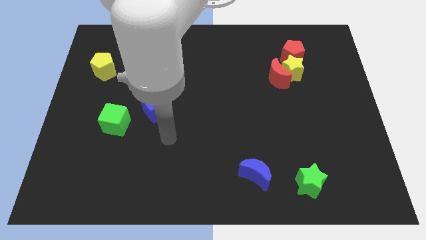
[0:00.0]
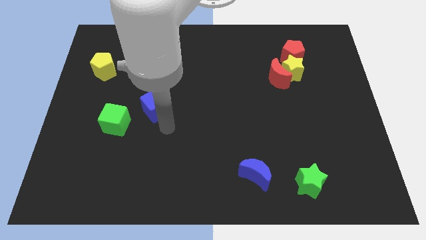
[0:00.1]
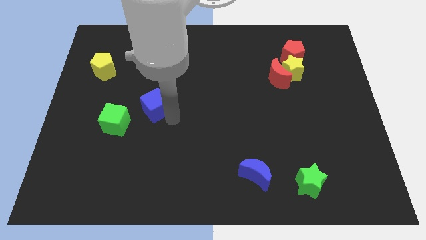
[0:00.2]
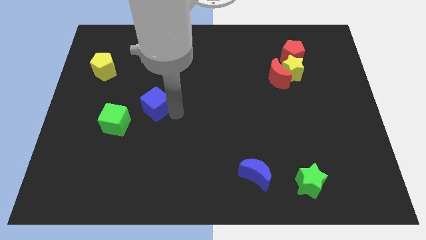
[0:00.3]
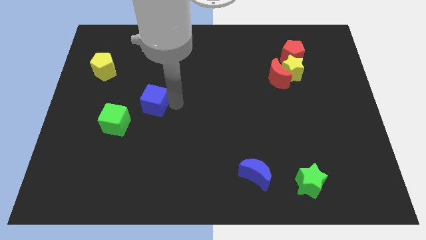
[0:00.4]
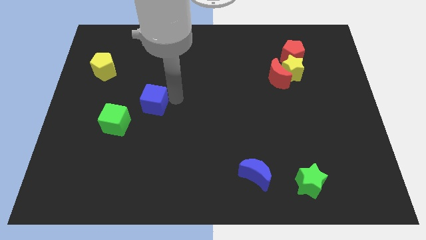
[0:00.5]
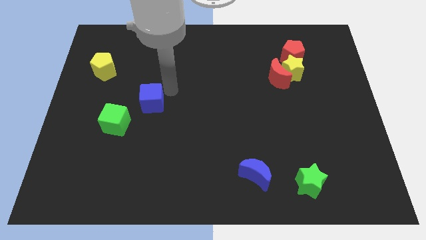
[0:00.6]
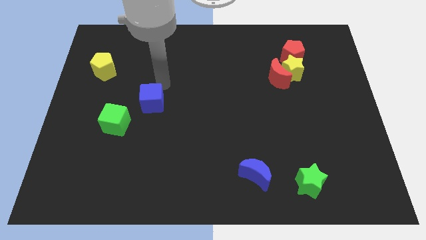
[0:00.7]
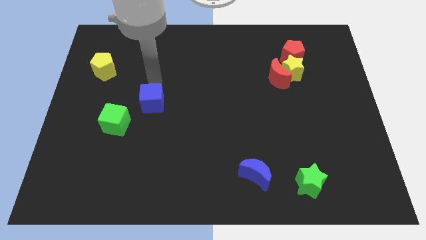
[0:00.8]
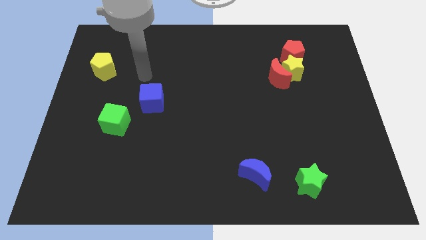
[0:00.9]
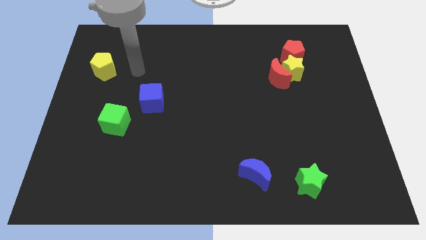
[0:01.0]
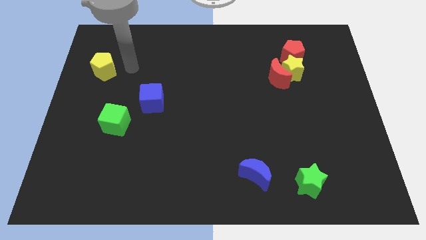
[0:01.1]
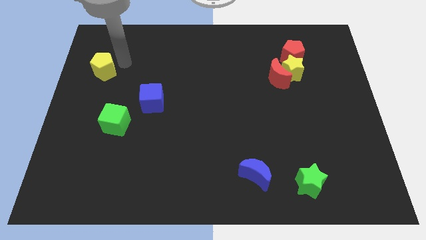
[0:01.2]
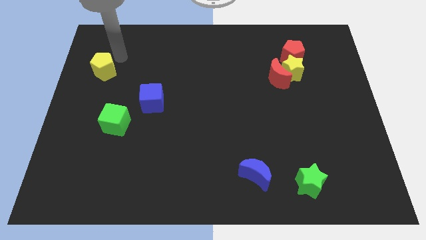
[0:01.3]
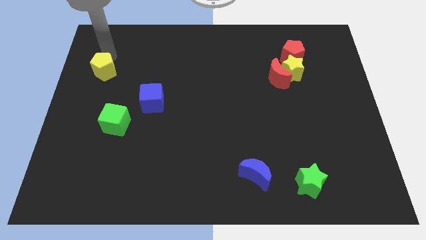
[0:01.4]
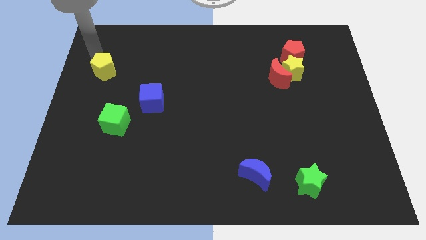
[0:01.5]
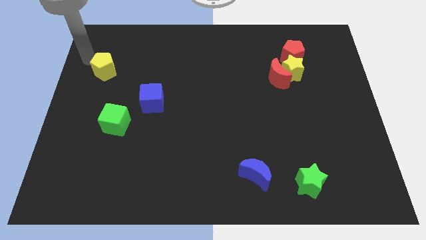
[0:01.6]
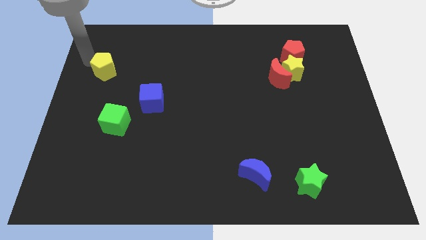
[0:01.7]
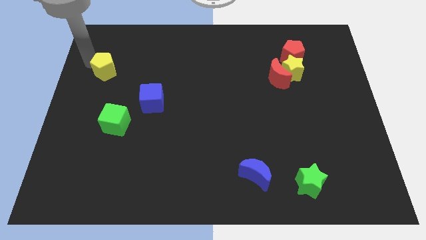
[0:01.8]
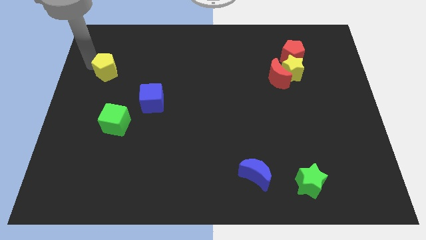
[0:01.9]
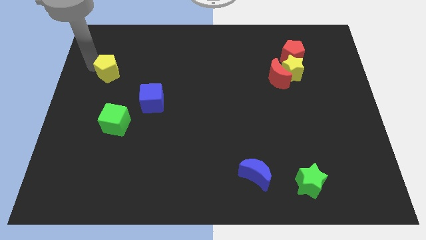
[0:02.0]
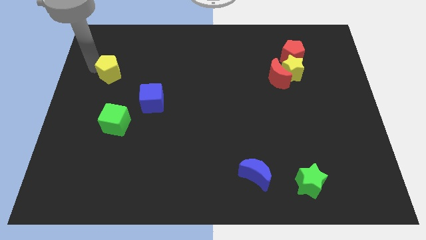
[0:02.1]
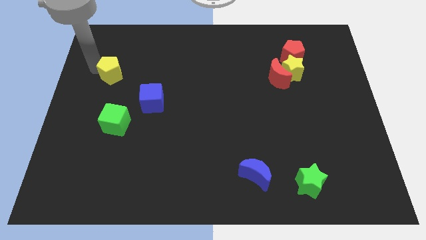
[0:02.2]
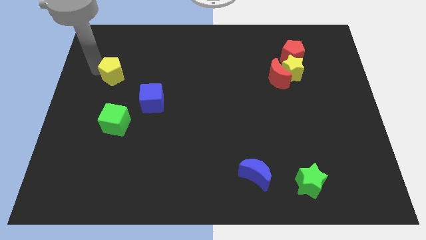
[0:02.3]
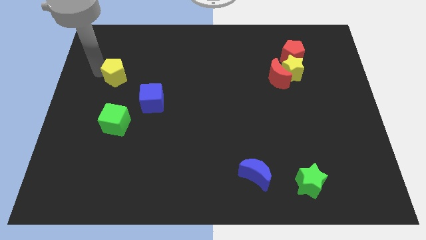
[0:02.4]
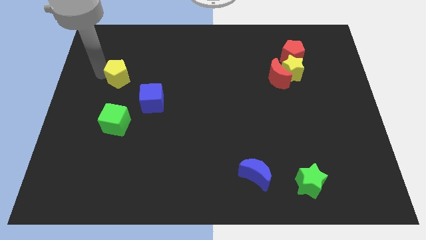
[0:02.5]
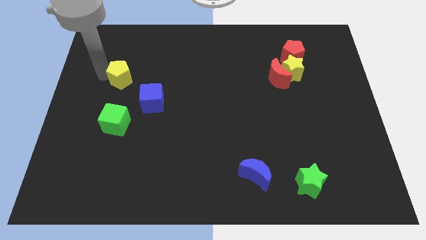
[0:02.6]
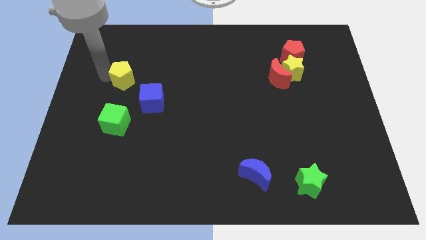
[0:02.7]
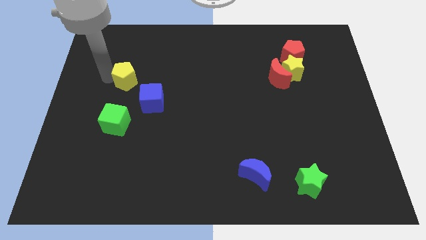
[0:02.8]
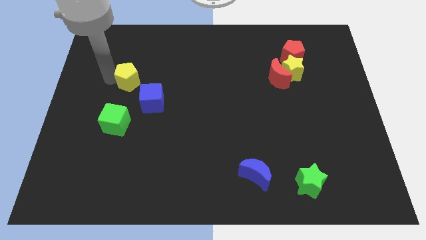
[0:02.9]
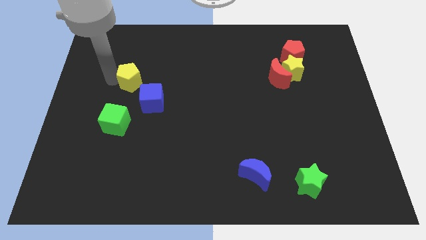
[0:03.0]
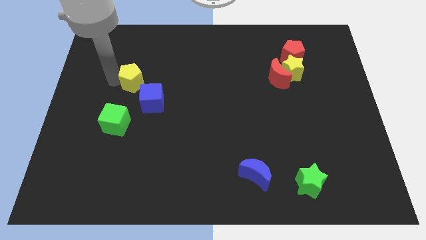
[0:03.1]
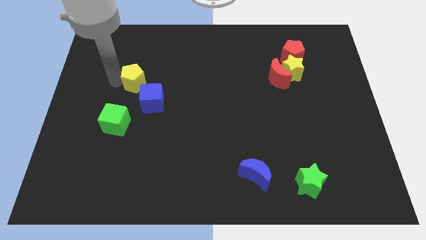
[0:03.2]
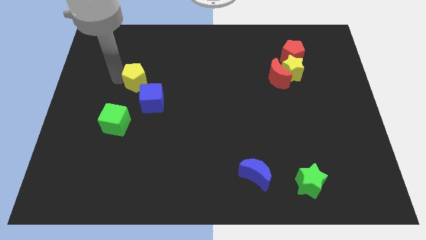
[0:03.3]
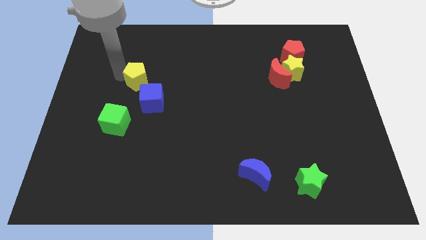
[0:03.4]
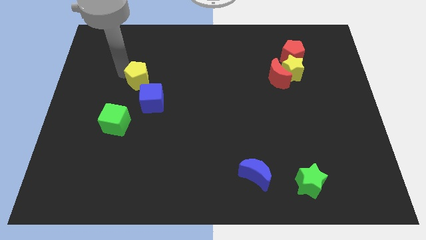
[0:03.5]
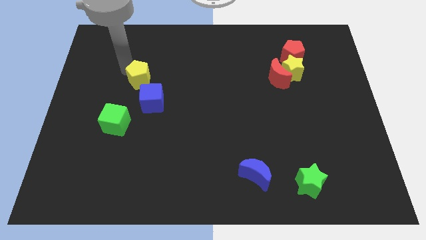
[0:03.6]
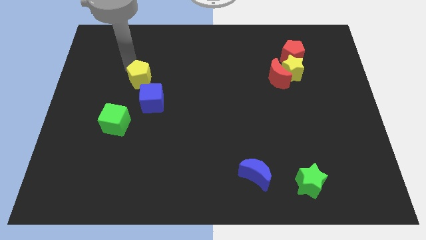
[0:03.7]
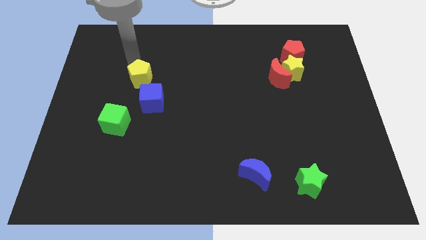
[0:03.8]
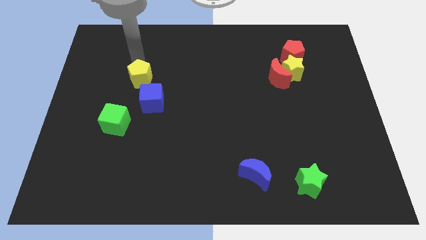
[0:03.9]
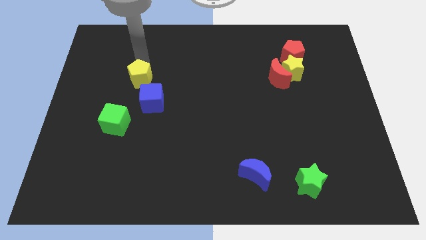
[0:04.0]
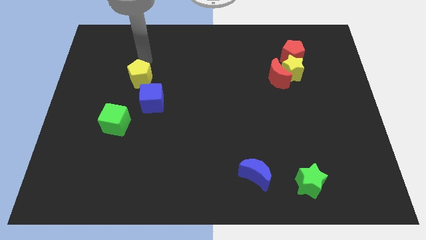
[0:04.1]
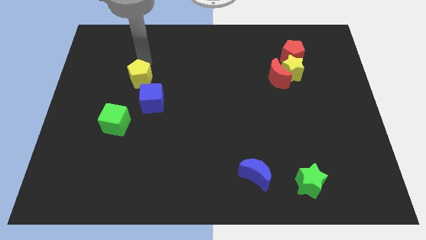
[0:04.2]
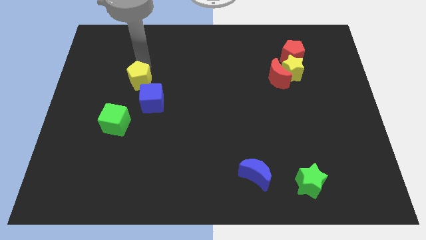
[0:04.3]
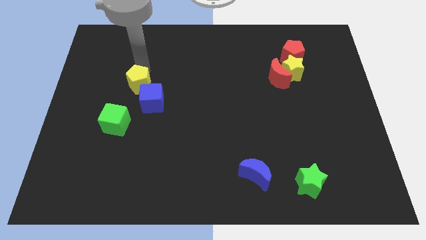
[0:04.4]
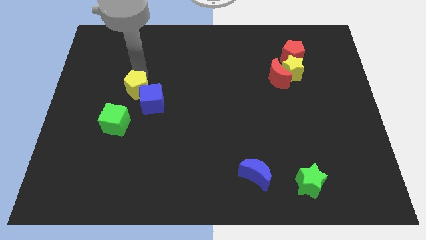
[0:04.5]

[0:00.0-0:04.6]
put the yellow pentagon towards the blue cube

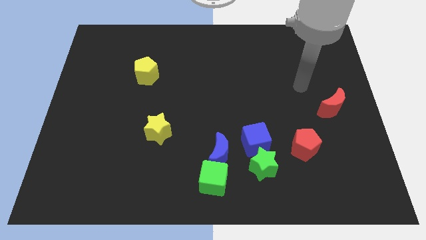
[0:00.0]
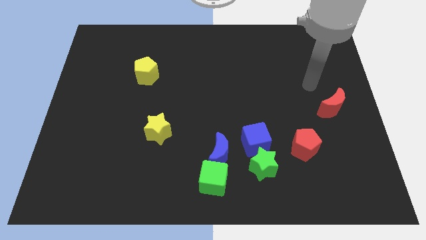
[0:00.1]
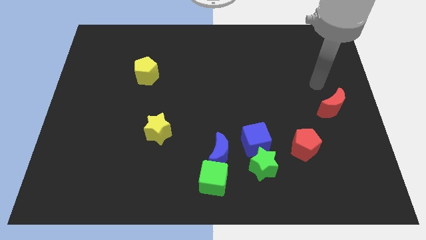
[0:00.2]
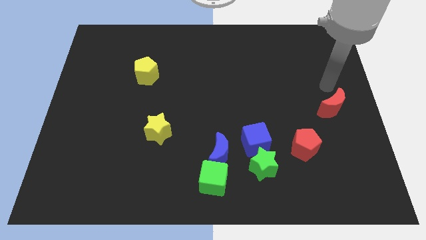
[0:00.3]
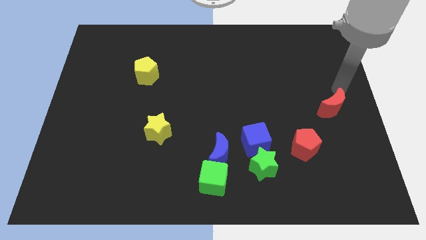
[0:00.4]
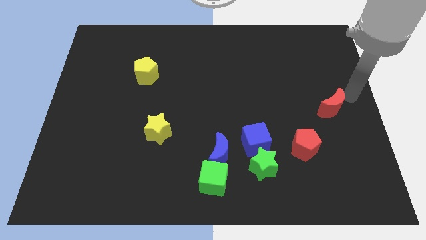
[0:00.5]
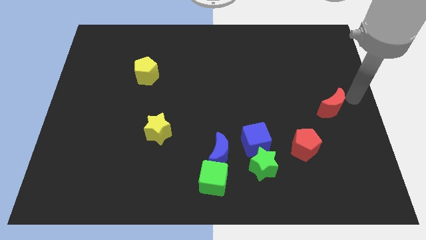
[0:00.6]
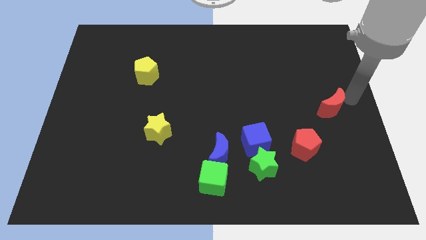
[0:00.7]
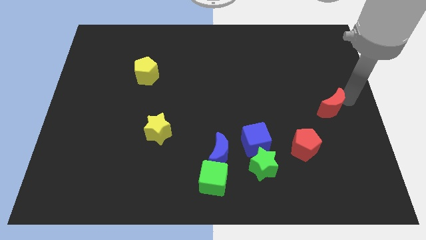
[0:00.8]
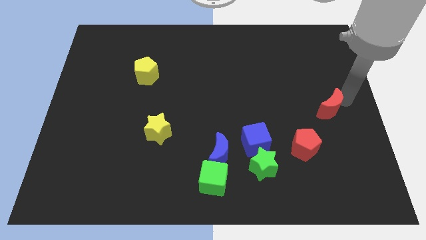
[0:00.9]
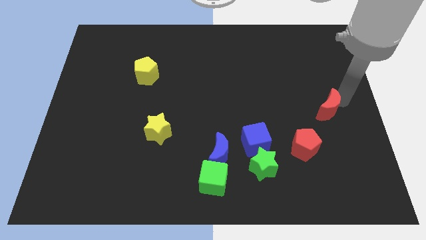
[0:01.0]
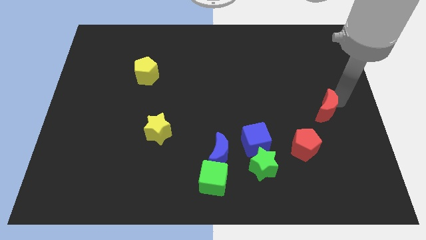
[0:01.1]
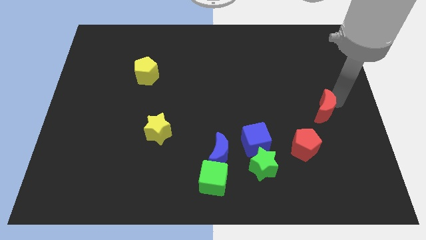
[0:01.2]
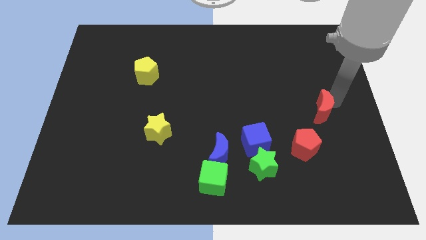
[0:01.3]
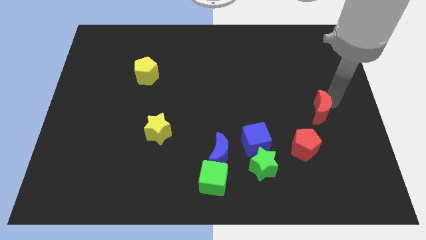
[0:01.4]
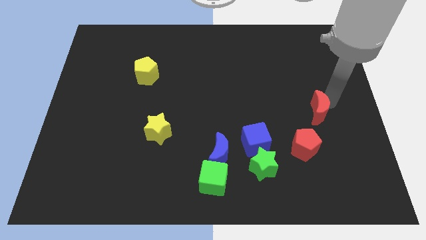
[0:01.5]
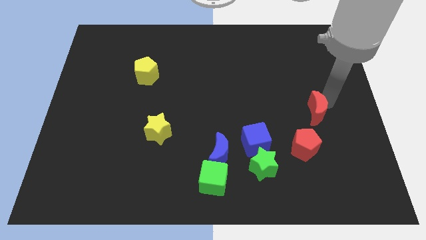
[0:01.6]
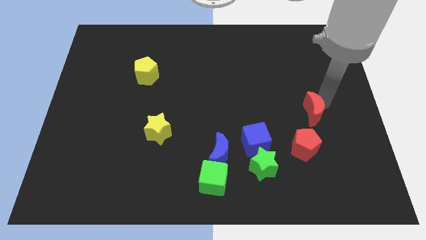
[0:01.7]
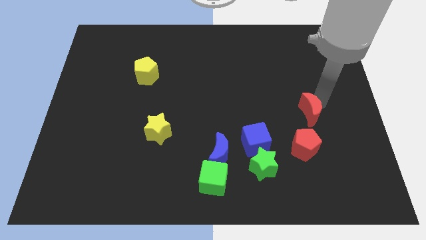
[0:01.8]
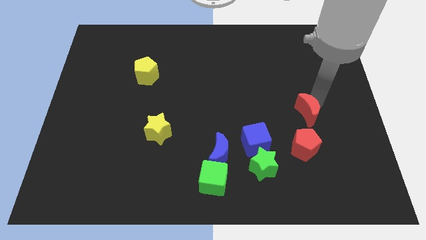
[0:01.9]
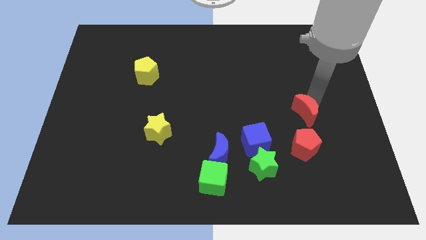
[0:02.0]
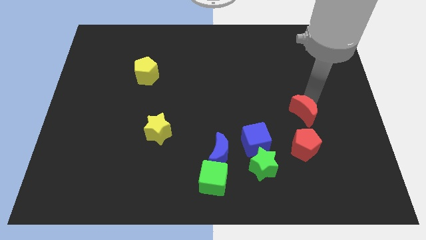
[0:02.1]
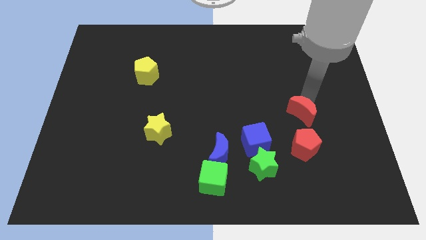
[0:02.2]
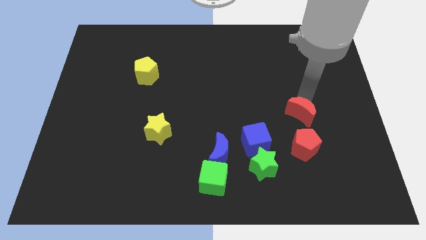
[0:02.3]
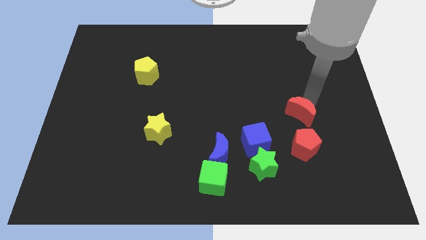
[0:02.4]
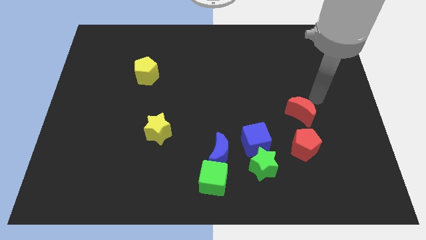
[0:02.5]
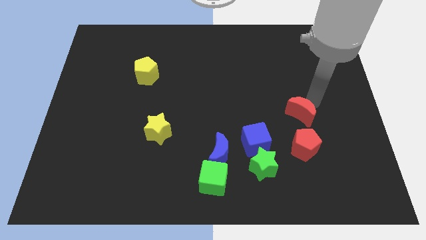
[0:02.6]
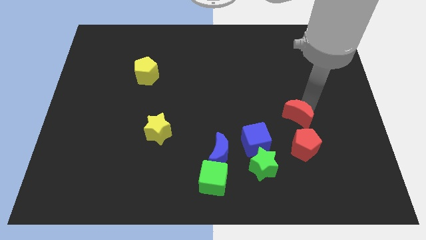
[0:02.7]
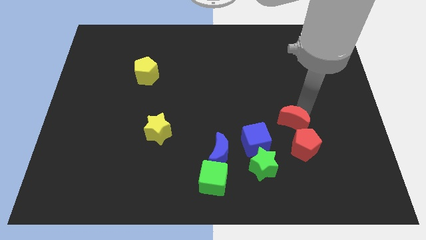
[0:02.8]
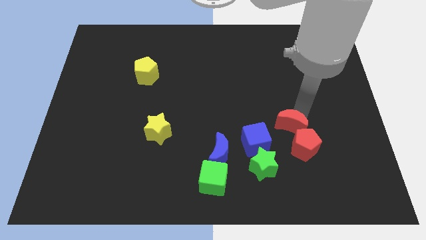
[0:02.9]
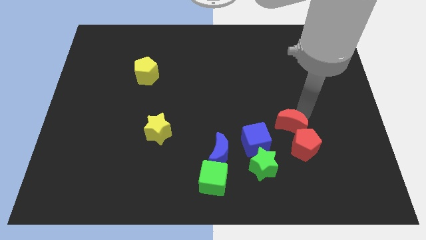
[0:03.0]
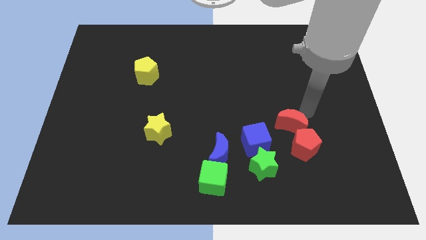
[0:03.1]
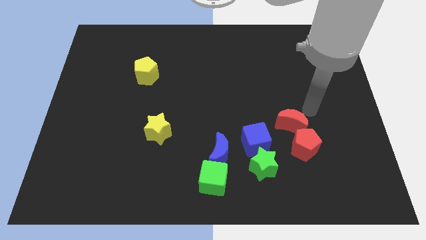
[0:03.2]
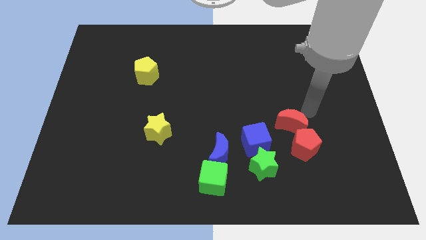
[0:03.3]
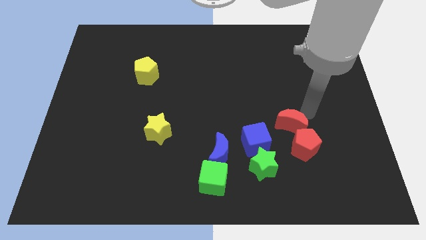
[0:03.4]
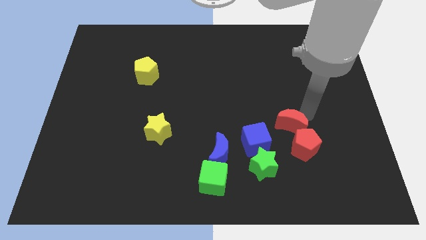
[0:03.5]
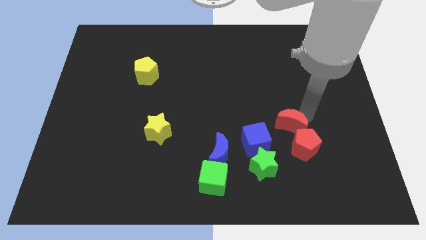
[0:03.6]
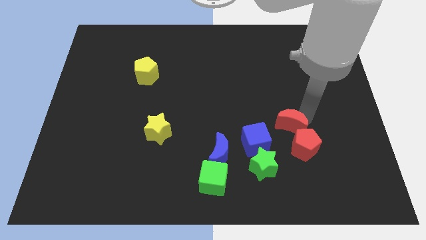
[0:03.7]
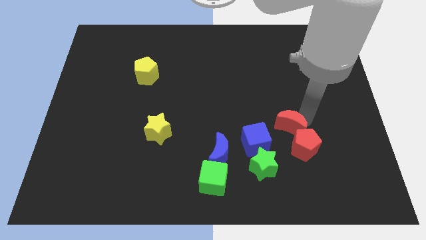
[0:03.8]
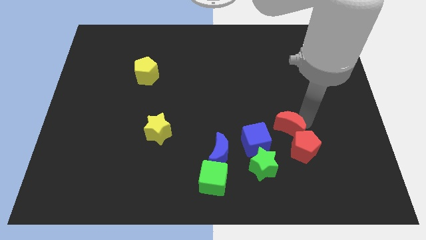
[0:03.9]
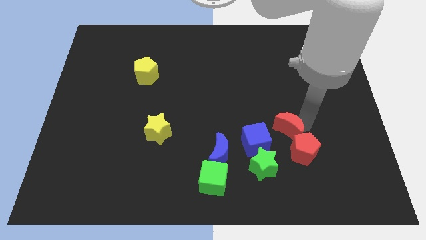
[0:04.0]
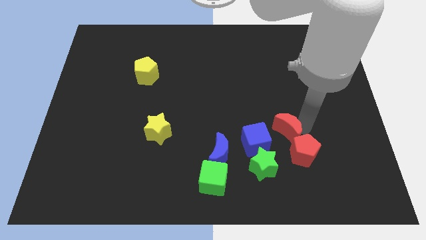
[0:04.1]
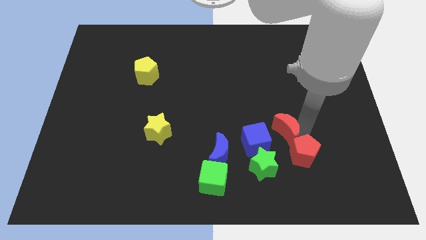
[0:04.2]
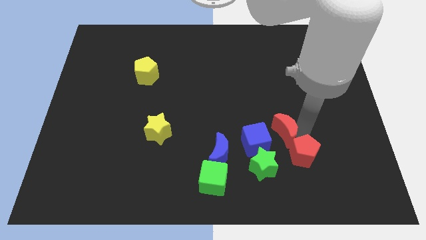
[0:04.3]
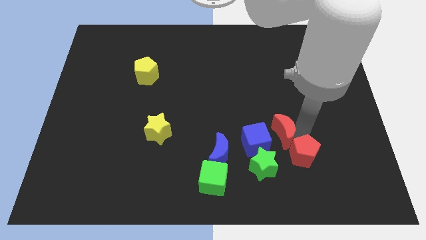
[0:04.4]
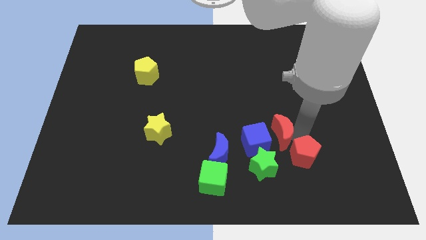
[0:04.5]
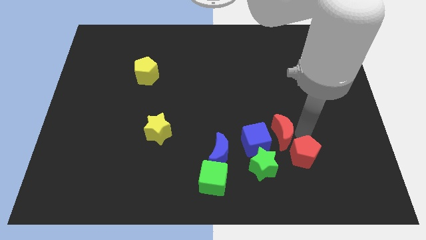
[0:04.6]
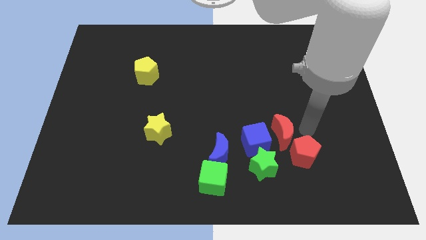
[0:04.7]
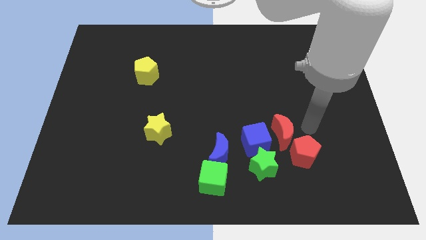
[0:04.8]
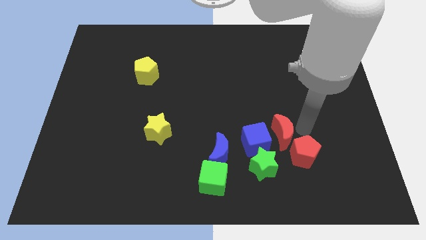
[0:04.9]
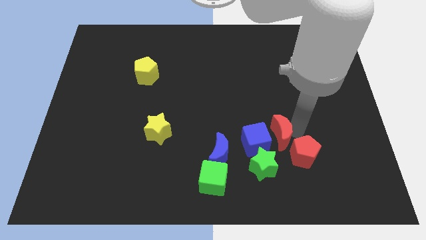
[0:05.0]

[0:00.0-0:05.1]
put the red moon next to the blue cube
